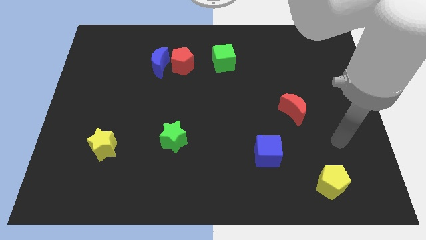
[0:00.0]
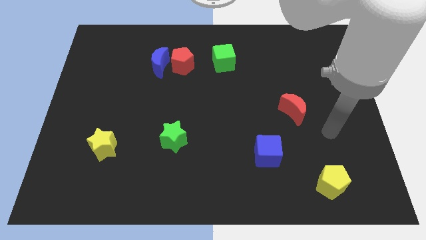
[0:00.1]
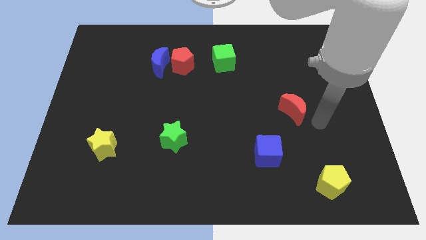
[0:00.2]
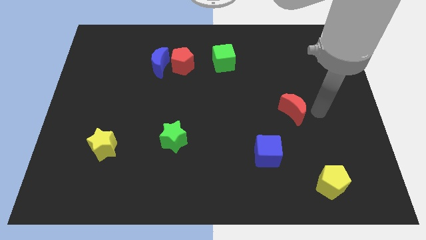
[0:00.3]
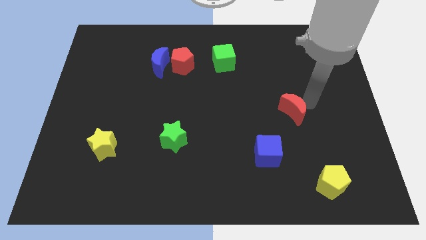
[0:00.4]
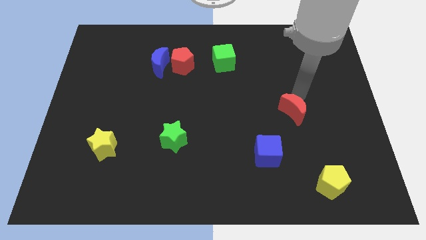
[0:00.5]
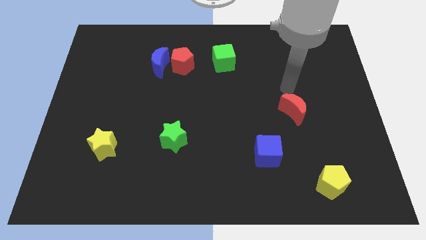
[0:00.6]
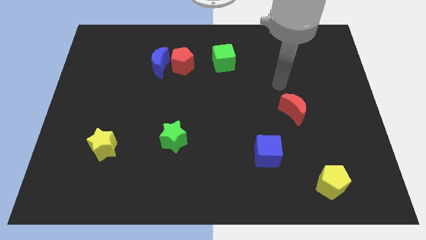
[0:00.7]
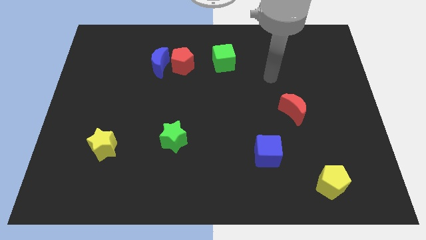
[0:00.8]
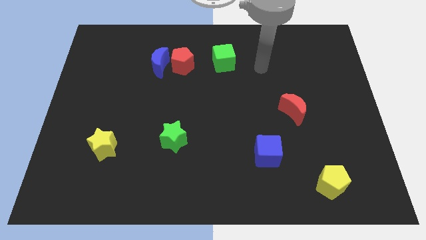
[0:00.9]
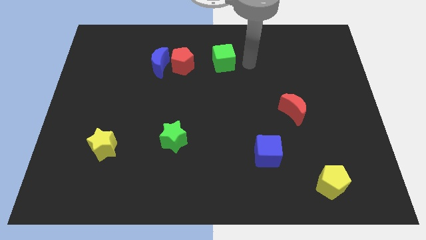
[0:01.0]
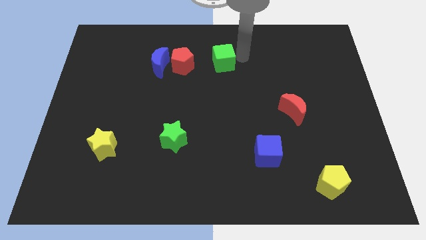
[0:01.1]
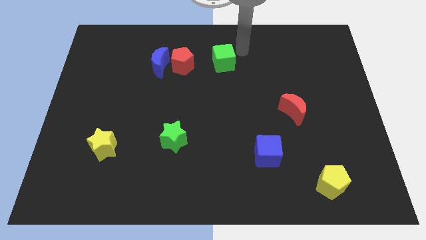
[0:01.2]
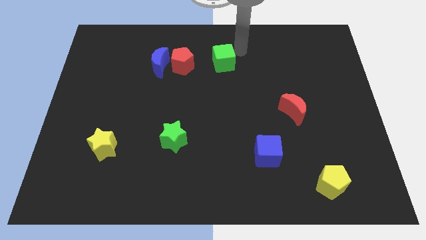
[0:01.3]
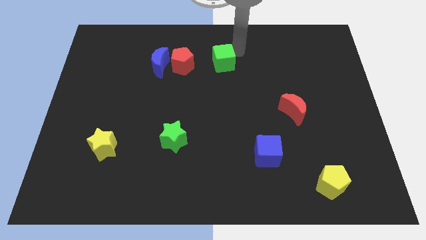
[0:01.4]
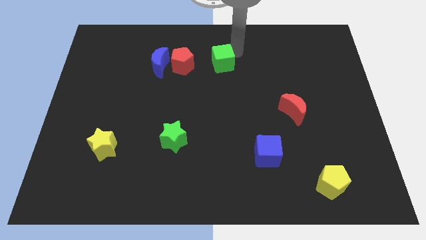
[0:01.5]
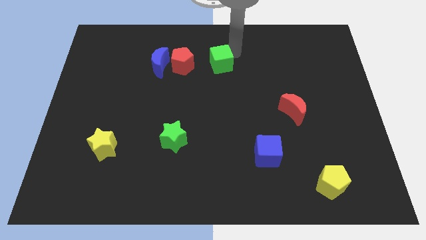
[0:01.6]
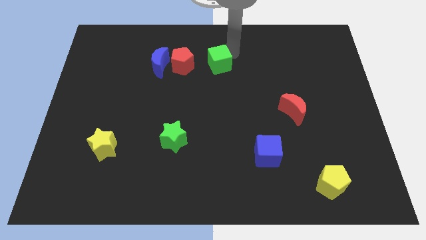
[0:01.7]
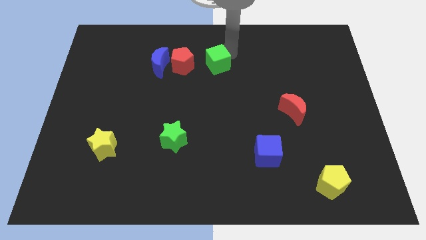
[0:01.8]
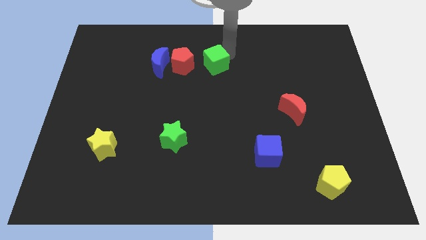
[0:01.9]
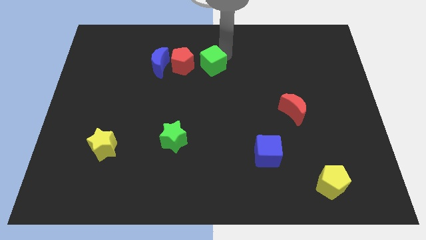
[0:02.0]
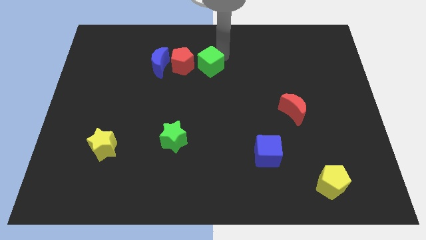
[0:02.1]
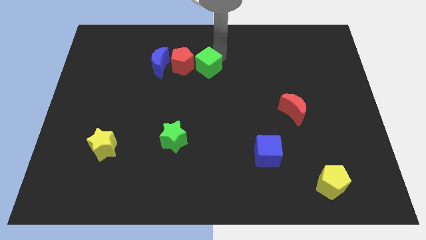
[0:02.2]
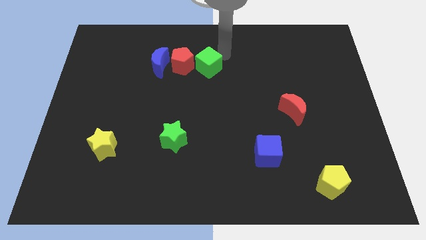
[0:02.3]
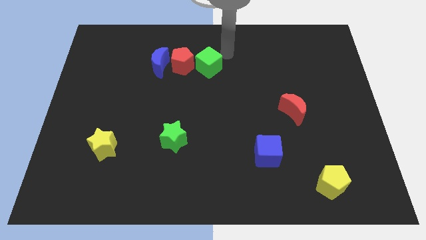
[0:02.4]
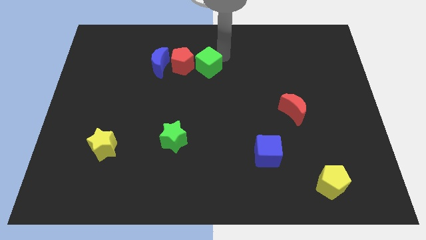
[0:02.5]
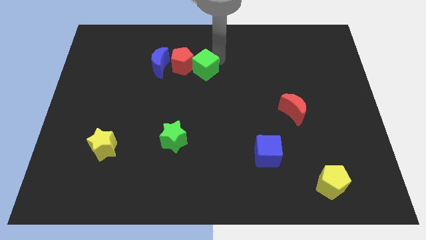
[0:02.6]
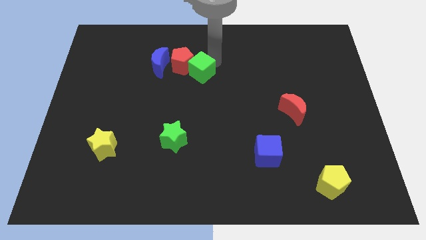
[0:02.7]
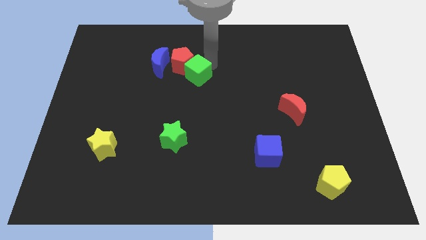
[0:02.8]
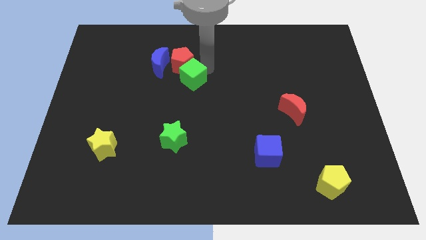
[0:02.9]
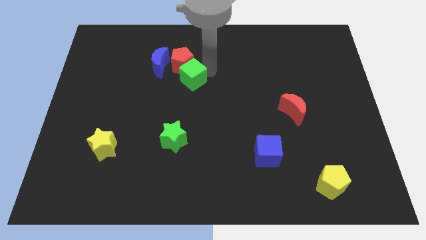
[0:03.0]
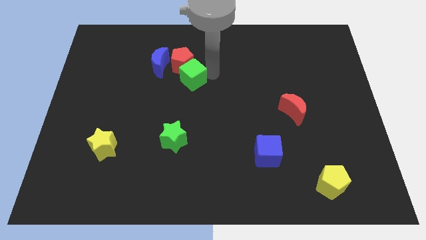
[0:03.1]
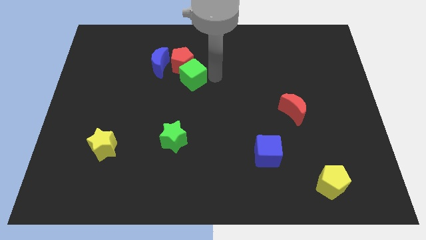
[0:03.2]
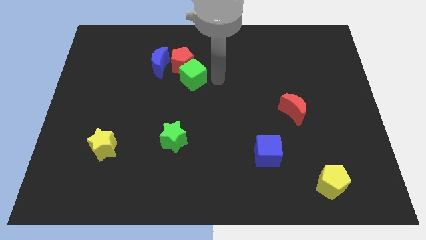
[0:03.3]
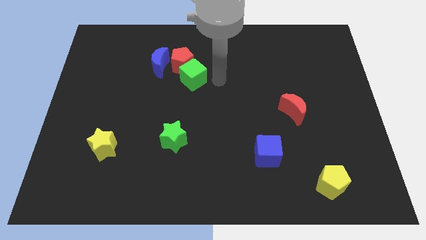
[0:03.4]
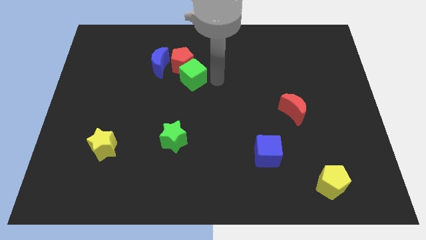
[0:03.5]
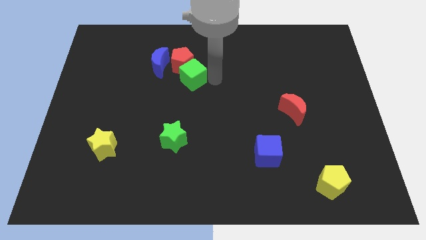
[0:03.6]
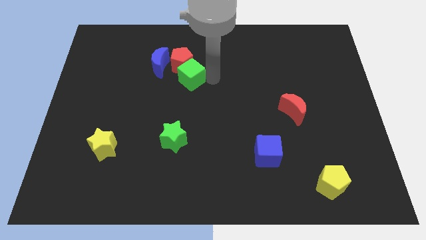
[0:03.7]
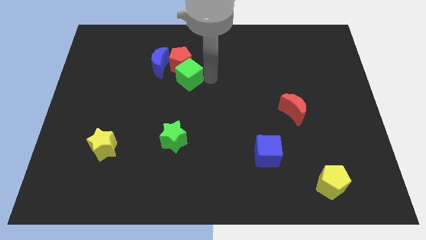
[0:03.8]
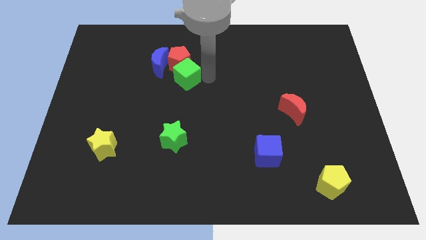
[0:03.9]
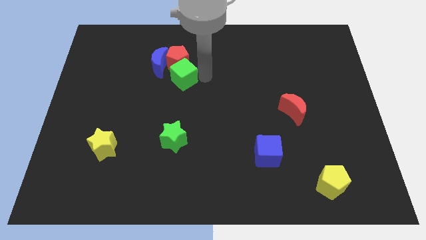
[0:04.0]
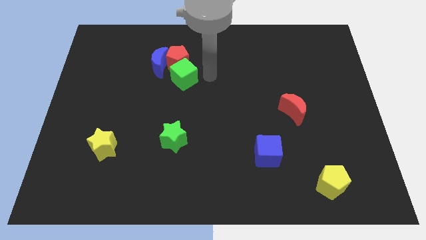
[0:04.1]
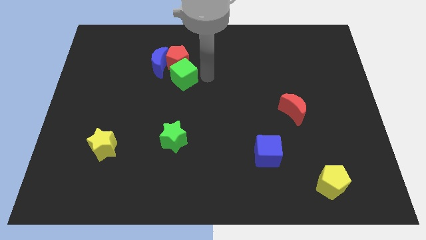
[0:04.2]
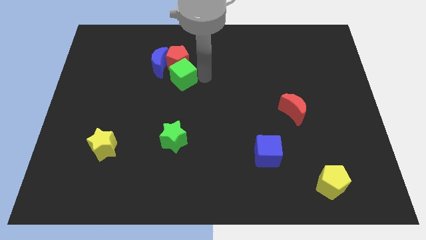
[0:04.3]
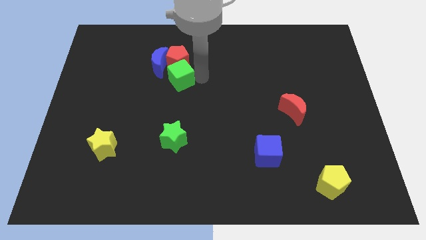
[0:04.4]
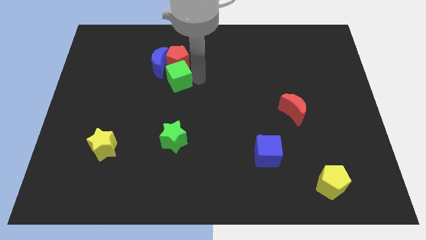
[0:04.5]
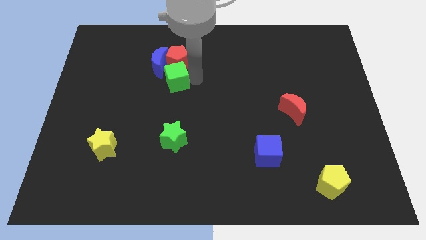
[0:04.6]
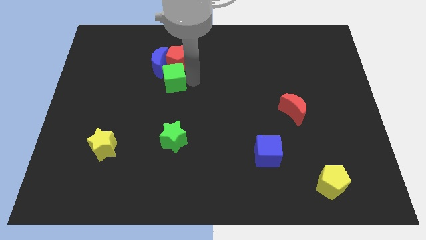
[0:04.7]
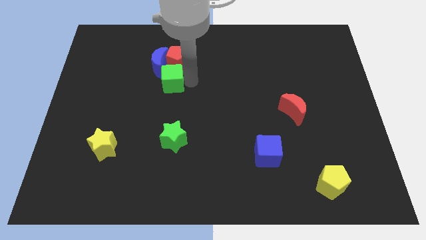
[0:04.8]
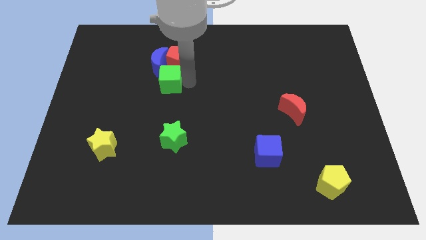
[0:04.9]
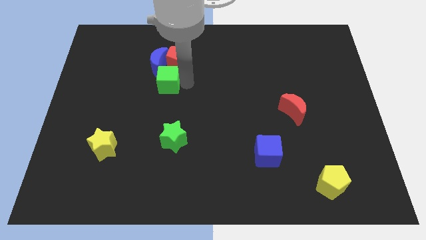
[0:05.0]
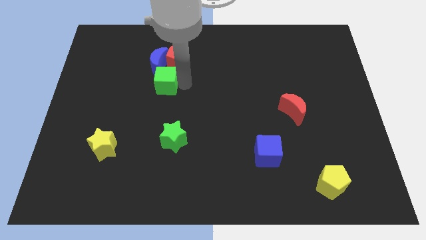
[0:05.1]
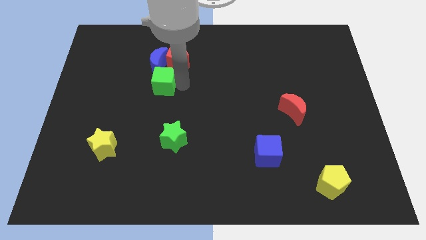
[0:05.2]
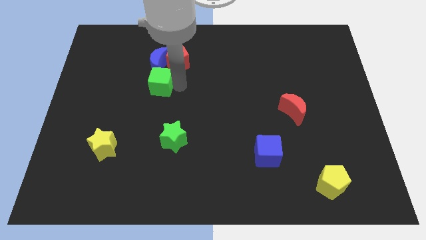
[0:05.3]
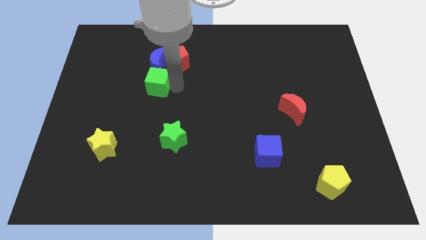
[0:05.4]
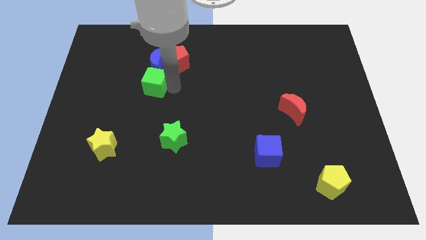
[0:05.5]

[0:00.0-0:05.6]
push the green cube to the bottom left of the blue moon

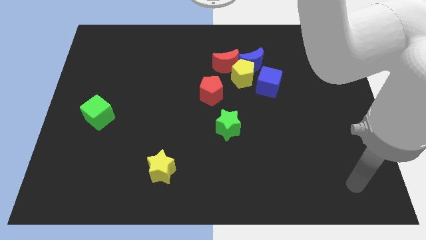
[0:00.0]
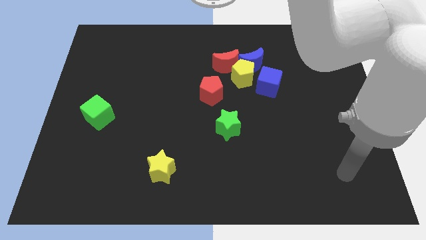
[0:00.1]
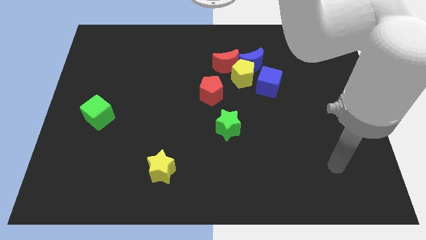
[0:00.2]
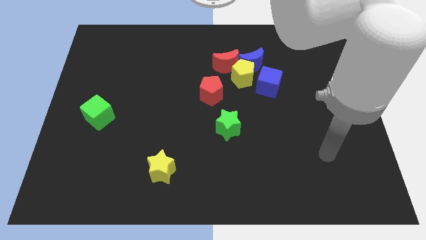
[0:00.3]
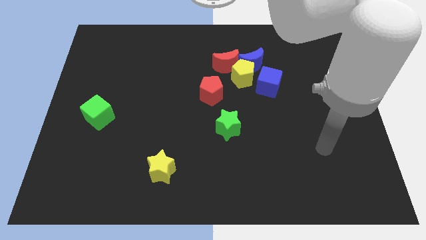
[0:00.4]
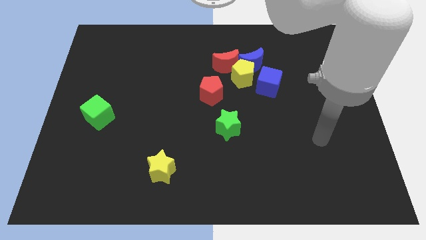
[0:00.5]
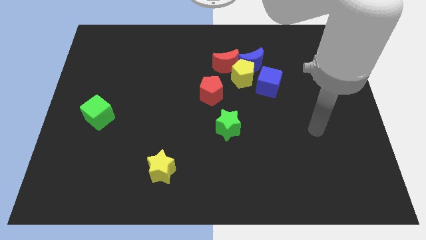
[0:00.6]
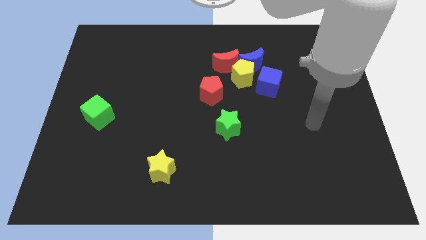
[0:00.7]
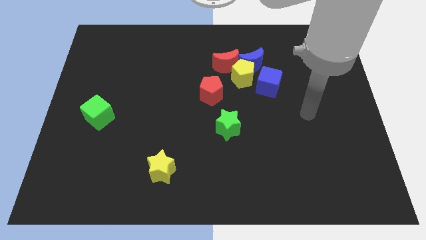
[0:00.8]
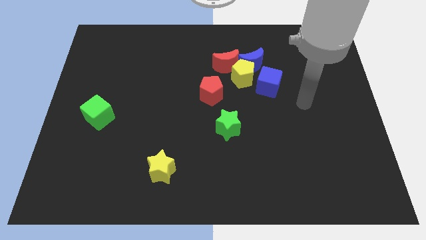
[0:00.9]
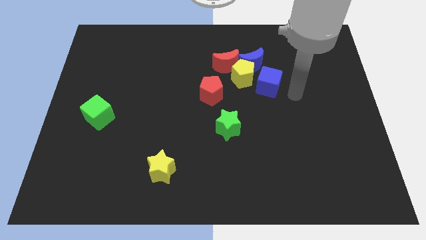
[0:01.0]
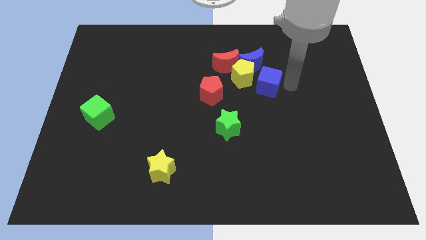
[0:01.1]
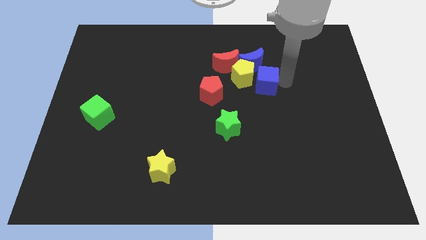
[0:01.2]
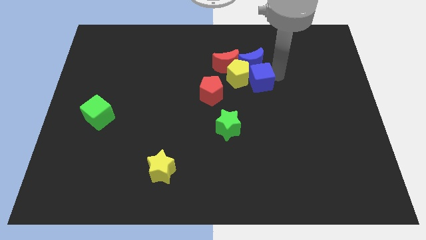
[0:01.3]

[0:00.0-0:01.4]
push the yellow pentagon to the bottom left side of the blue cube
